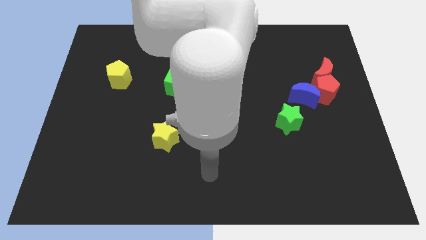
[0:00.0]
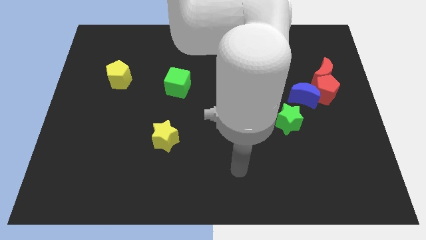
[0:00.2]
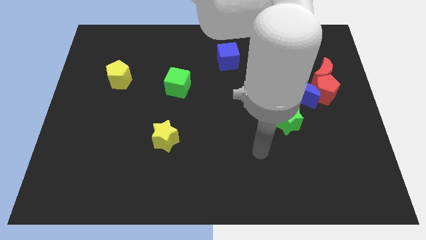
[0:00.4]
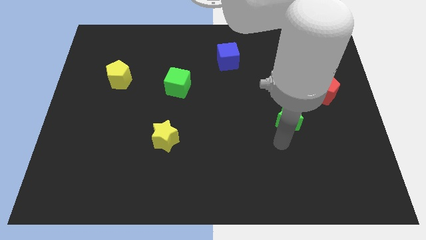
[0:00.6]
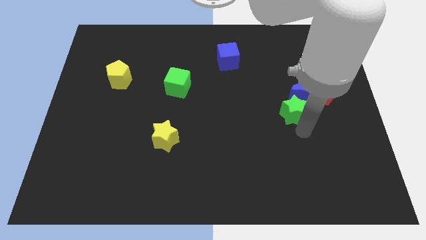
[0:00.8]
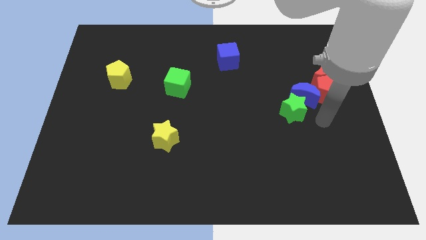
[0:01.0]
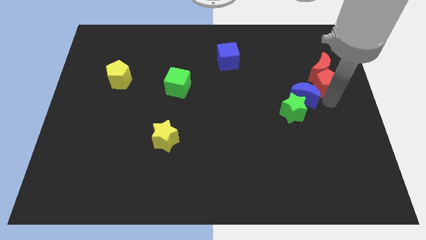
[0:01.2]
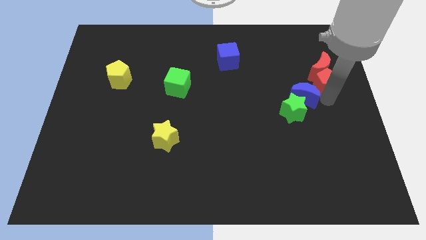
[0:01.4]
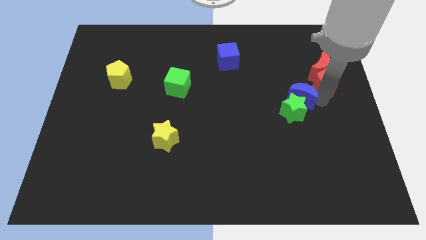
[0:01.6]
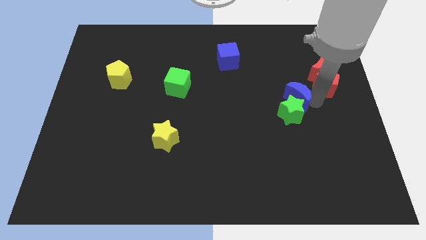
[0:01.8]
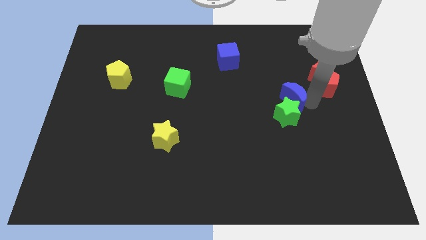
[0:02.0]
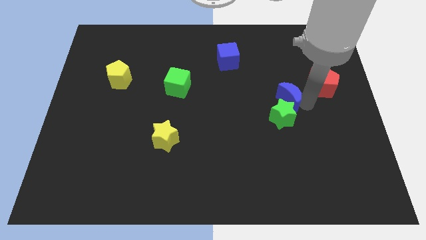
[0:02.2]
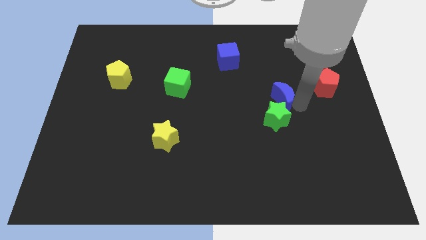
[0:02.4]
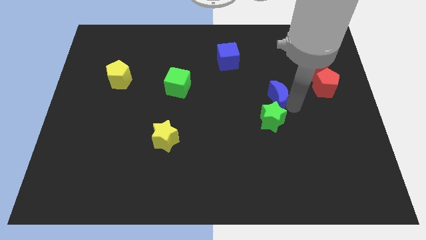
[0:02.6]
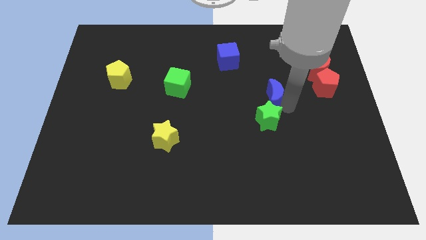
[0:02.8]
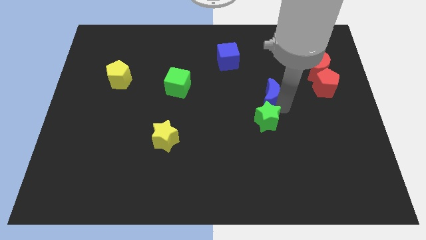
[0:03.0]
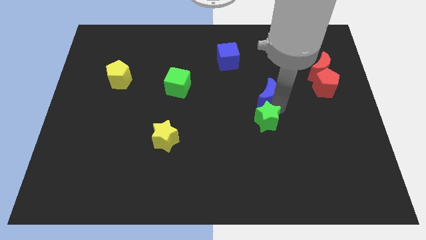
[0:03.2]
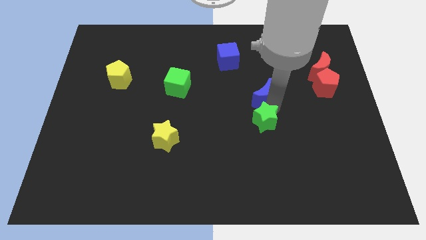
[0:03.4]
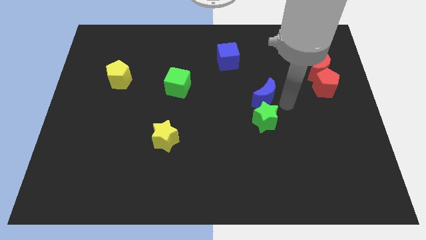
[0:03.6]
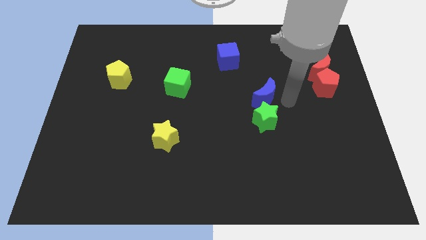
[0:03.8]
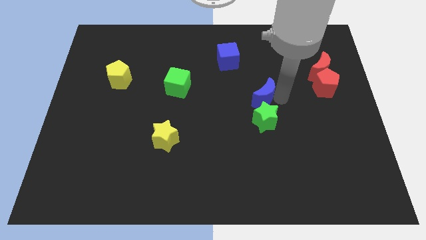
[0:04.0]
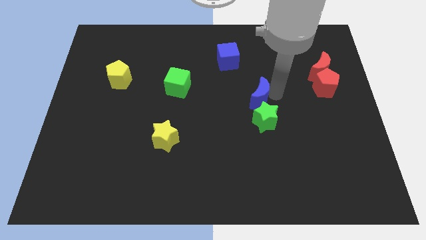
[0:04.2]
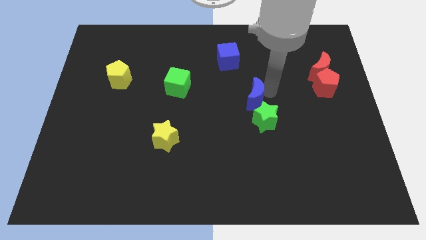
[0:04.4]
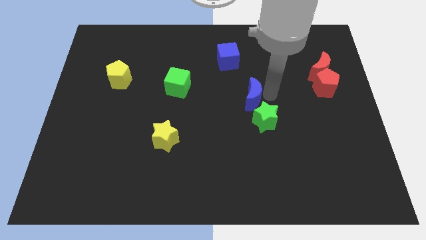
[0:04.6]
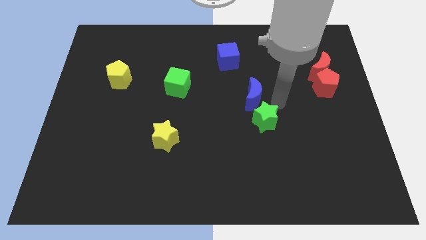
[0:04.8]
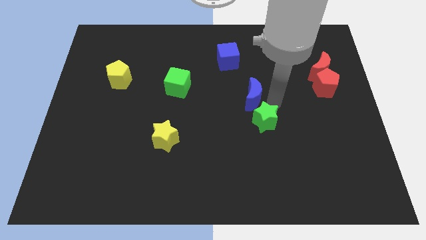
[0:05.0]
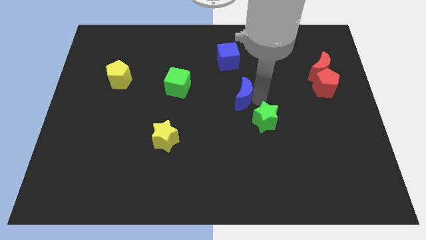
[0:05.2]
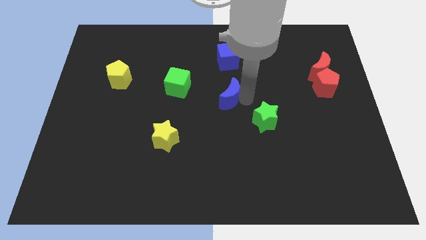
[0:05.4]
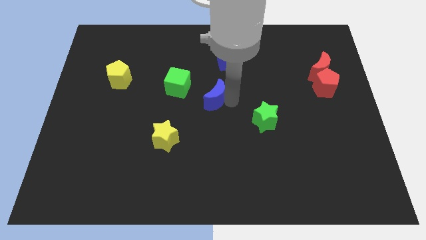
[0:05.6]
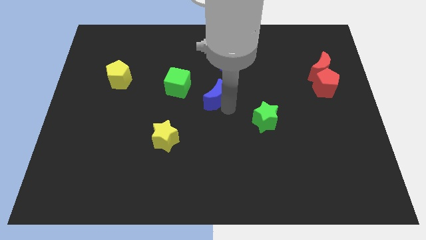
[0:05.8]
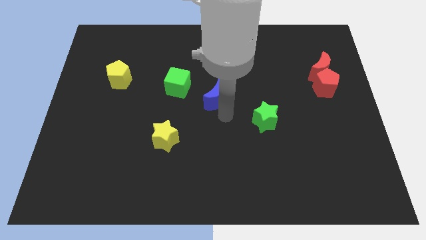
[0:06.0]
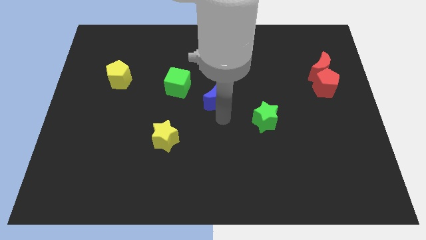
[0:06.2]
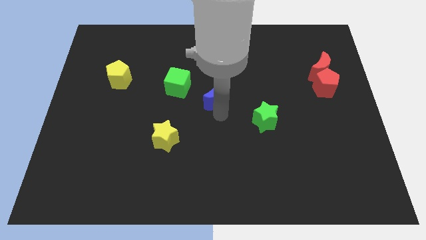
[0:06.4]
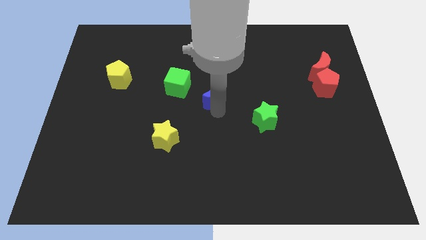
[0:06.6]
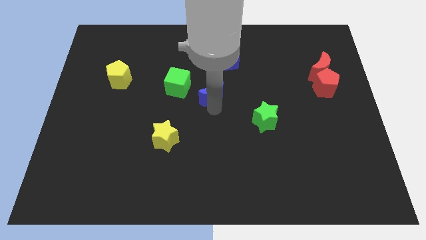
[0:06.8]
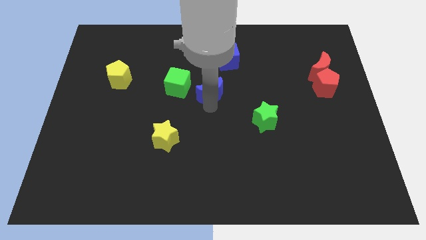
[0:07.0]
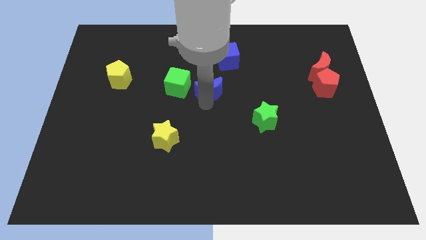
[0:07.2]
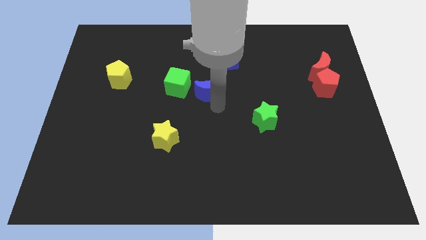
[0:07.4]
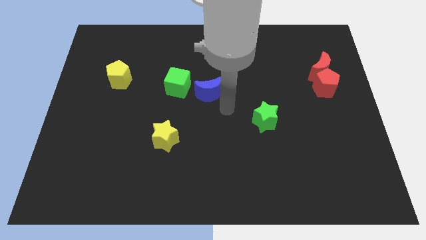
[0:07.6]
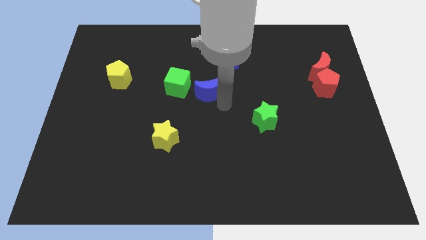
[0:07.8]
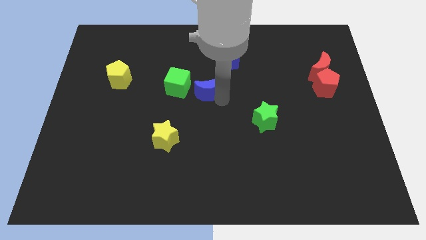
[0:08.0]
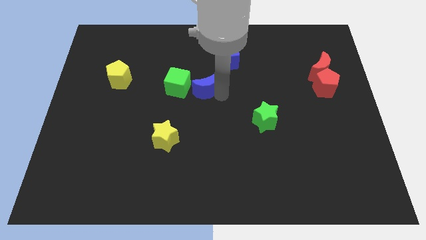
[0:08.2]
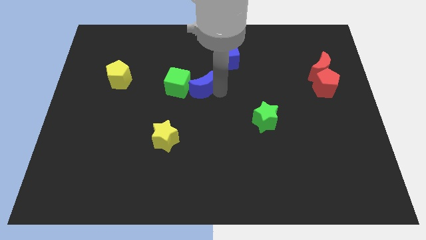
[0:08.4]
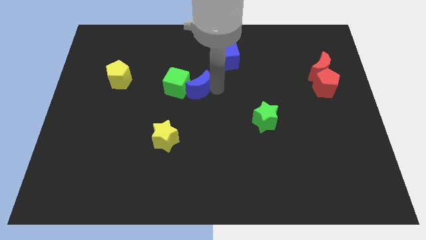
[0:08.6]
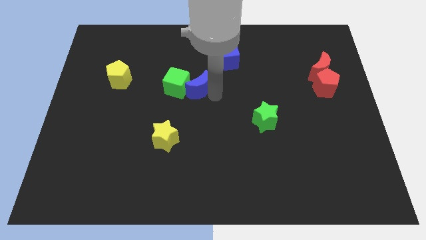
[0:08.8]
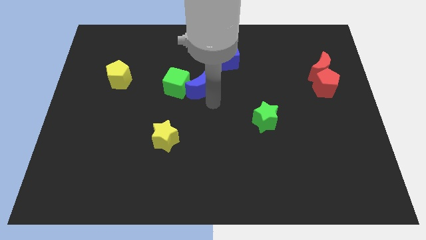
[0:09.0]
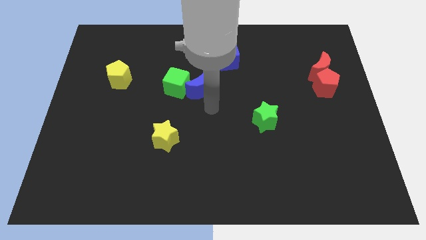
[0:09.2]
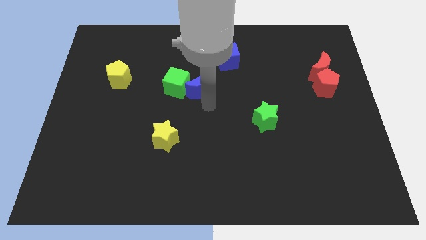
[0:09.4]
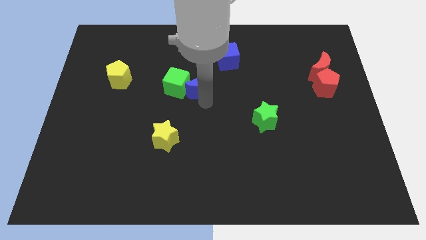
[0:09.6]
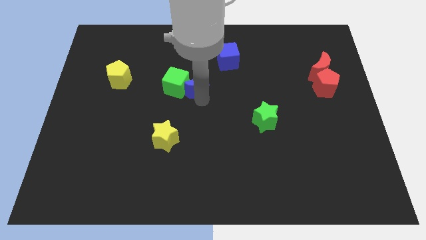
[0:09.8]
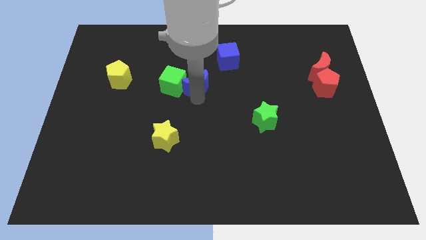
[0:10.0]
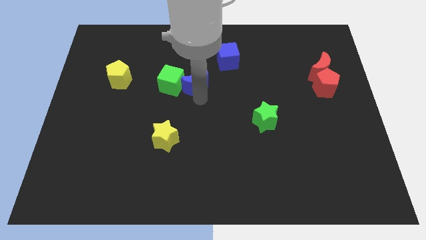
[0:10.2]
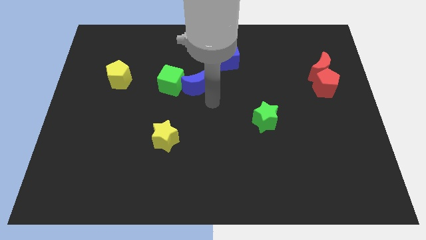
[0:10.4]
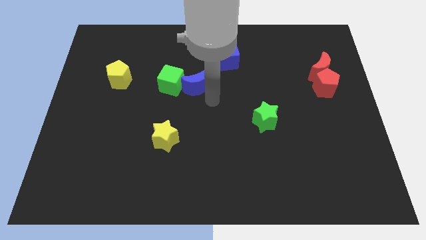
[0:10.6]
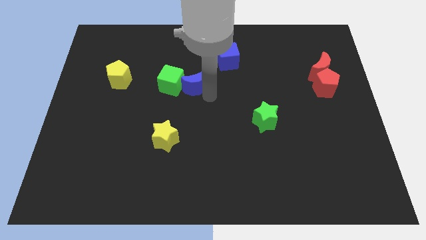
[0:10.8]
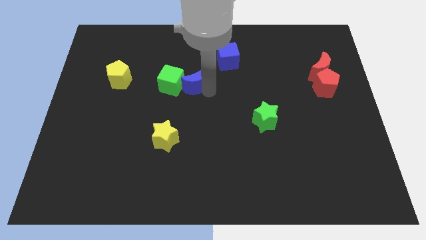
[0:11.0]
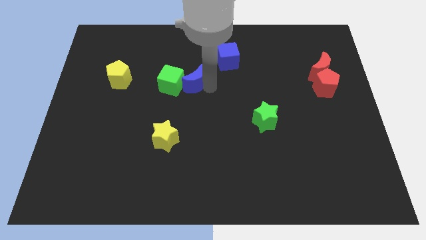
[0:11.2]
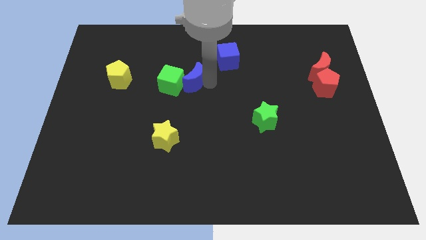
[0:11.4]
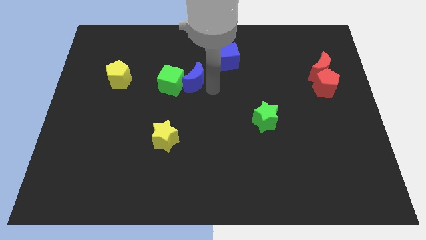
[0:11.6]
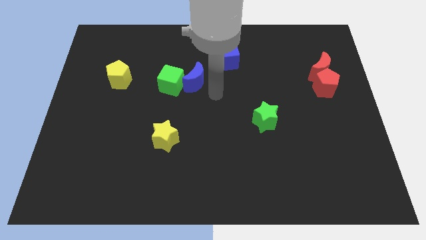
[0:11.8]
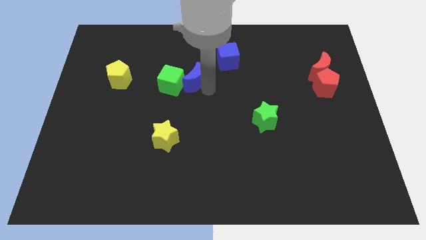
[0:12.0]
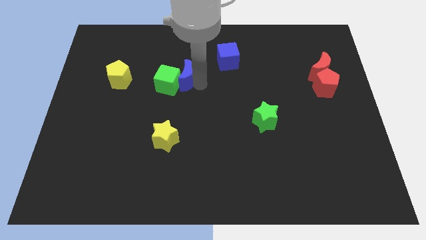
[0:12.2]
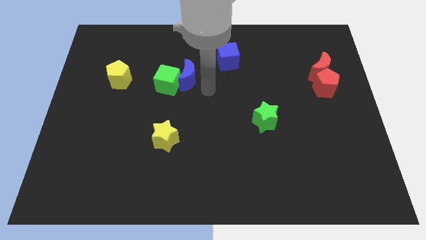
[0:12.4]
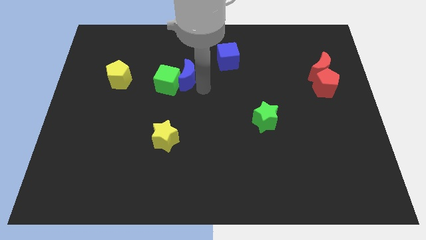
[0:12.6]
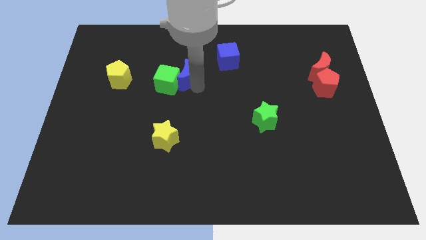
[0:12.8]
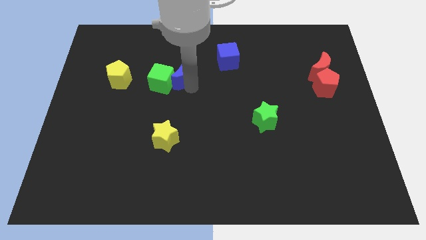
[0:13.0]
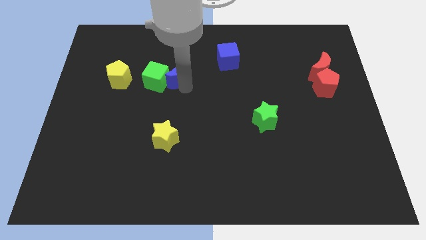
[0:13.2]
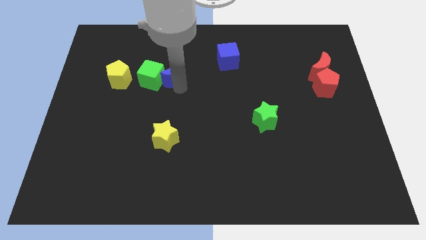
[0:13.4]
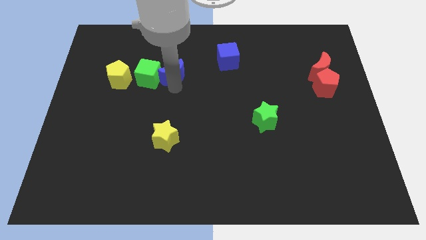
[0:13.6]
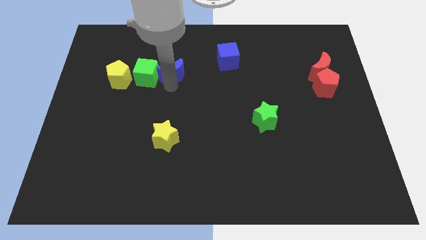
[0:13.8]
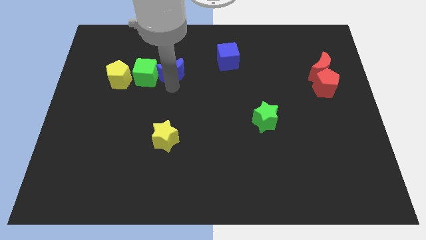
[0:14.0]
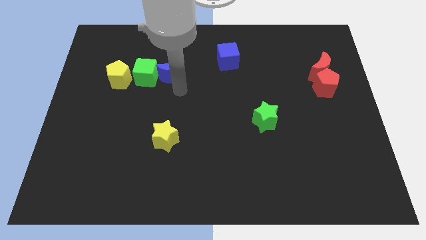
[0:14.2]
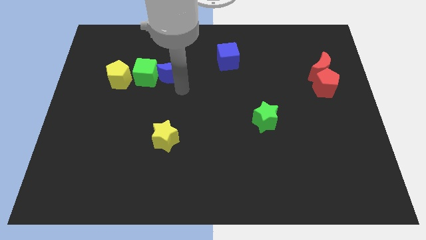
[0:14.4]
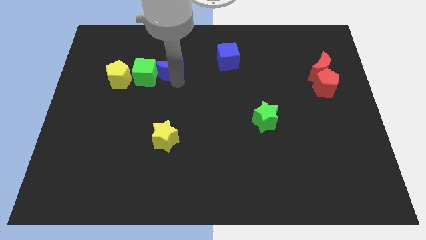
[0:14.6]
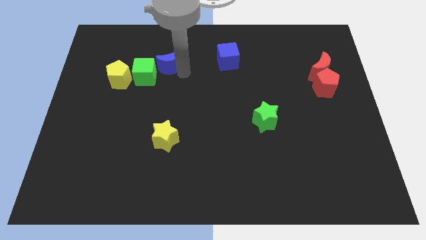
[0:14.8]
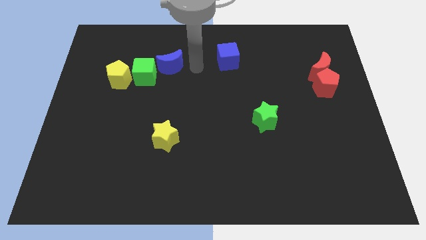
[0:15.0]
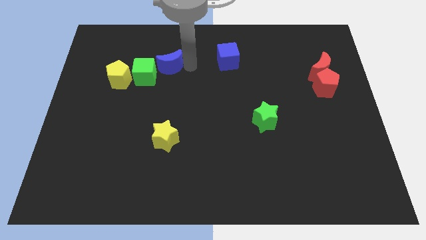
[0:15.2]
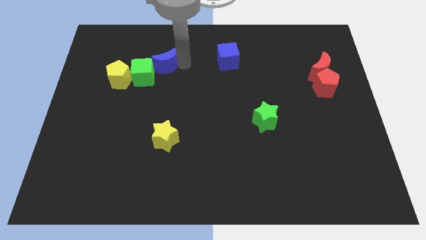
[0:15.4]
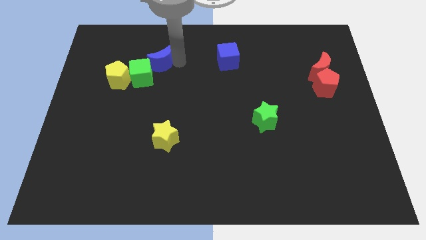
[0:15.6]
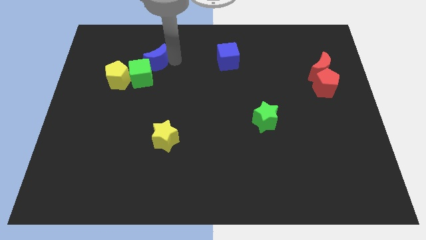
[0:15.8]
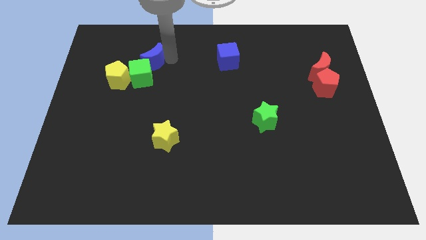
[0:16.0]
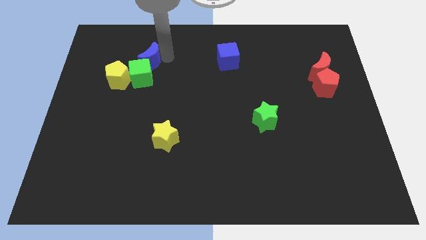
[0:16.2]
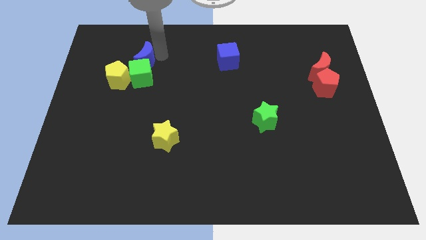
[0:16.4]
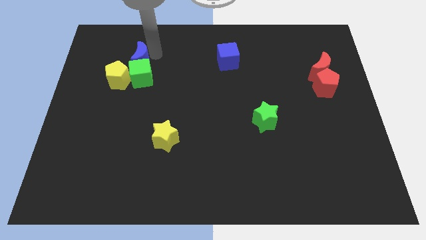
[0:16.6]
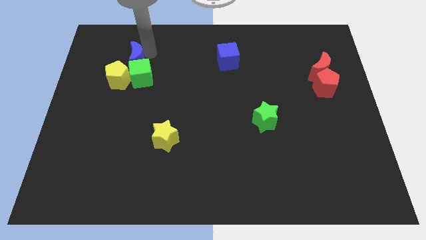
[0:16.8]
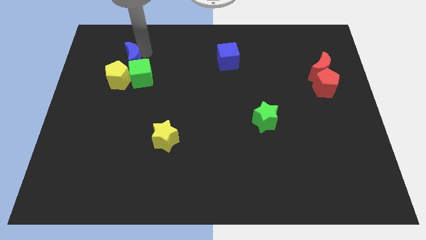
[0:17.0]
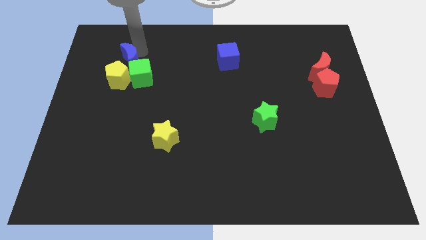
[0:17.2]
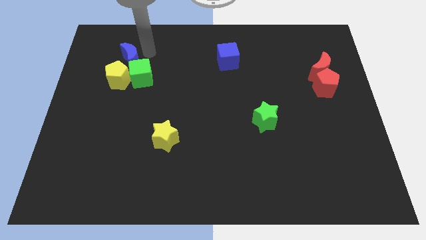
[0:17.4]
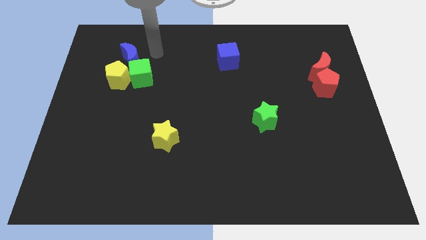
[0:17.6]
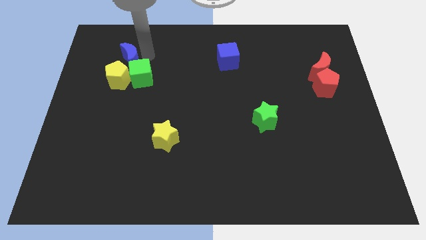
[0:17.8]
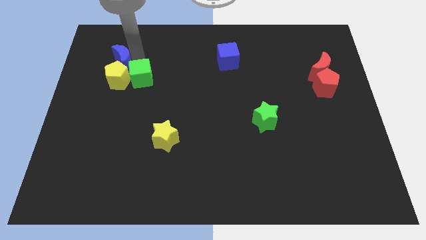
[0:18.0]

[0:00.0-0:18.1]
move the blue moon diagonally up and to the left of the yellow pentagon
